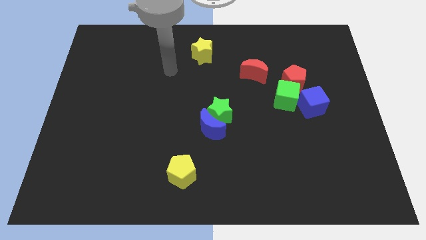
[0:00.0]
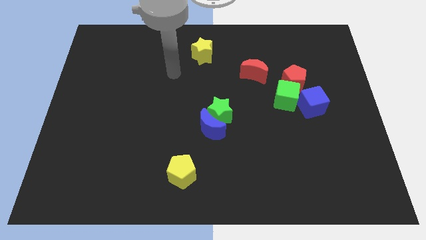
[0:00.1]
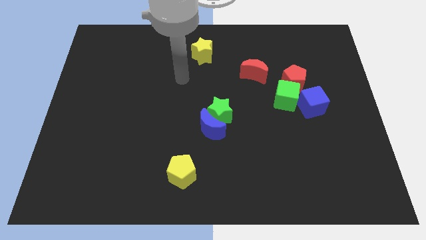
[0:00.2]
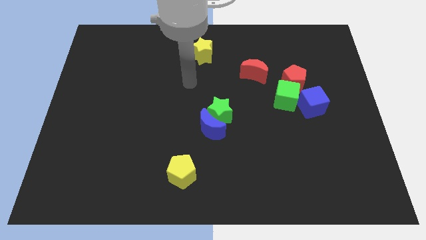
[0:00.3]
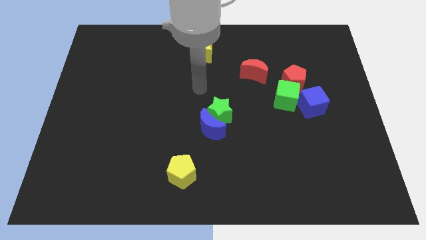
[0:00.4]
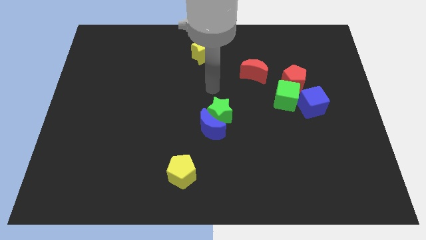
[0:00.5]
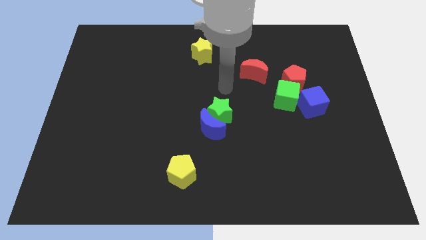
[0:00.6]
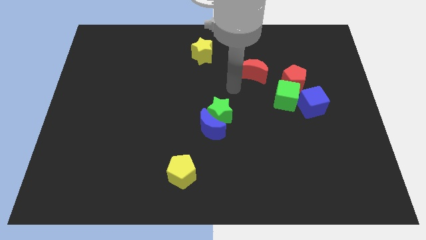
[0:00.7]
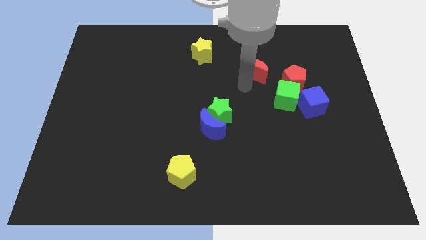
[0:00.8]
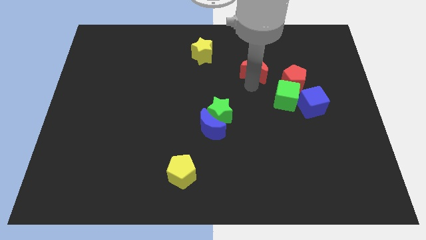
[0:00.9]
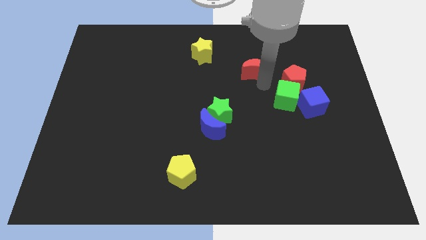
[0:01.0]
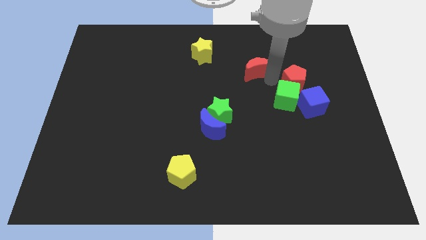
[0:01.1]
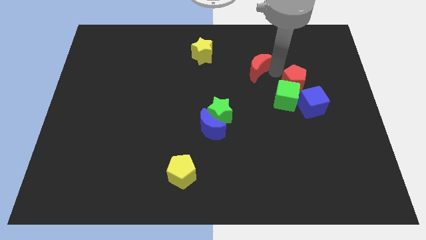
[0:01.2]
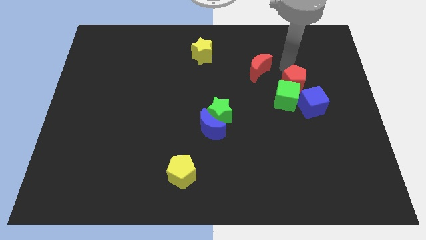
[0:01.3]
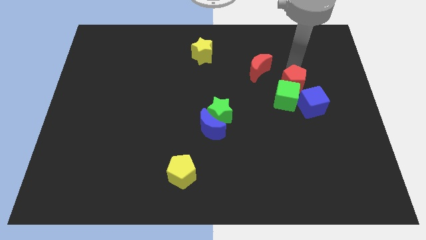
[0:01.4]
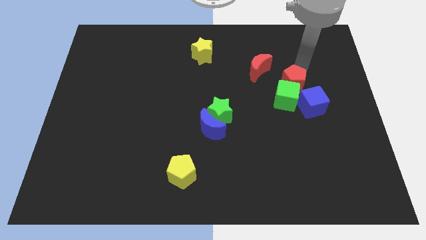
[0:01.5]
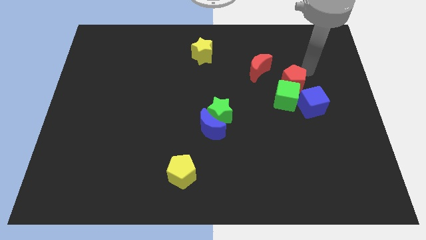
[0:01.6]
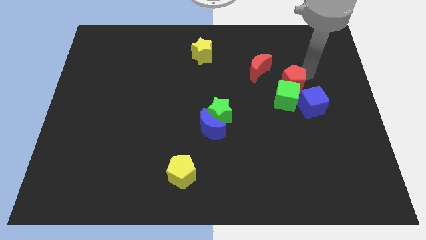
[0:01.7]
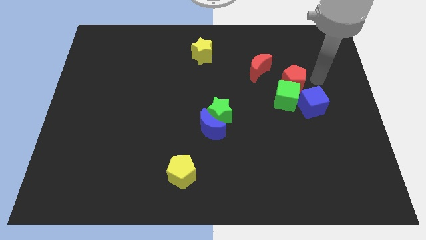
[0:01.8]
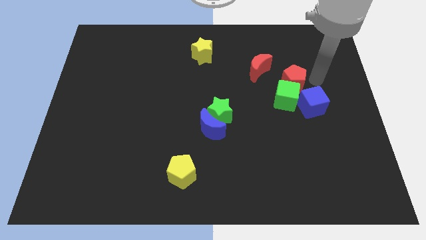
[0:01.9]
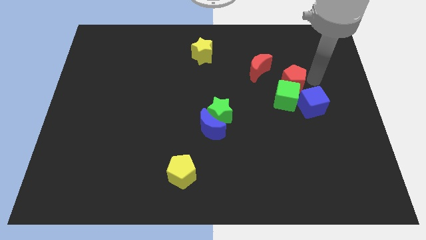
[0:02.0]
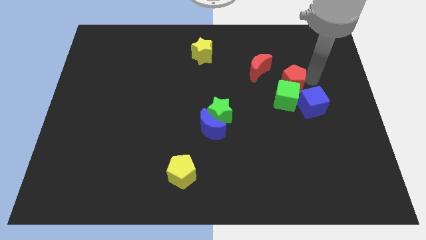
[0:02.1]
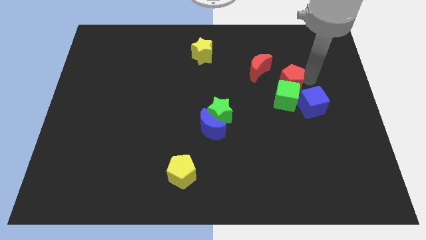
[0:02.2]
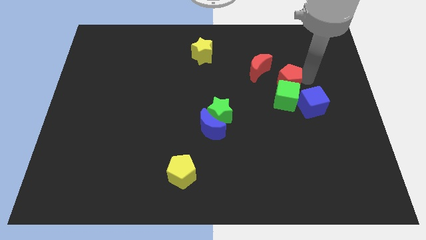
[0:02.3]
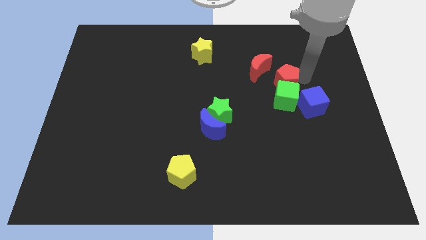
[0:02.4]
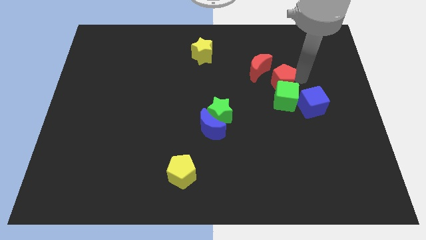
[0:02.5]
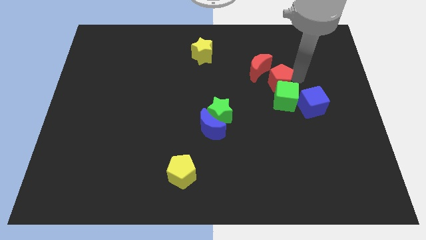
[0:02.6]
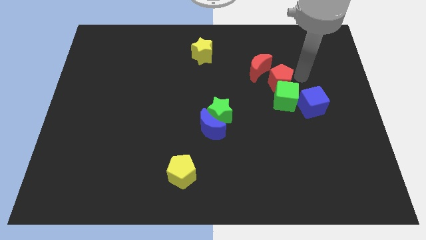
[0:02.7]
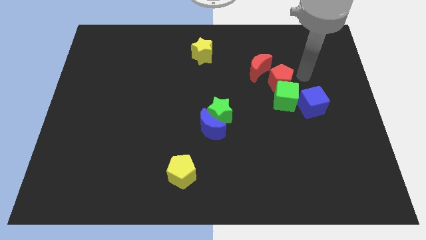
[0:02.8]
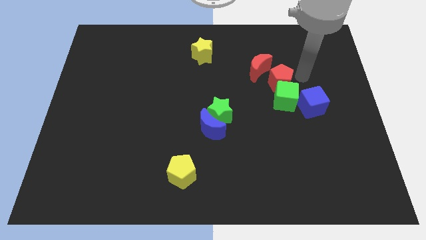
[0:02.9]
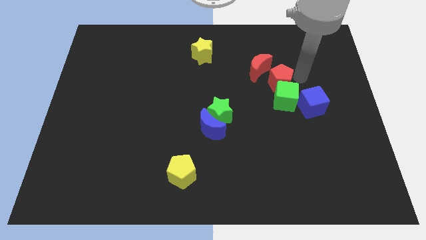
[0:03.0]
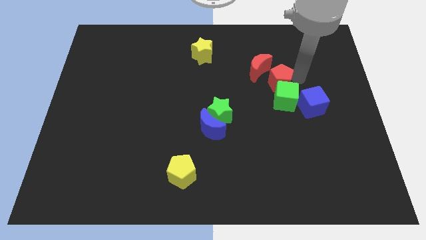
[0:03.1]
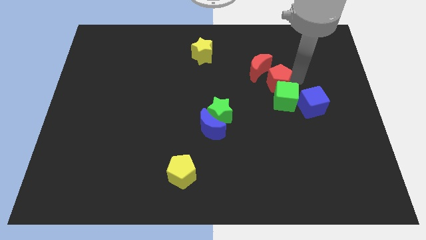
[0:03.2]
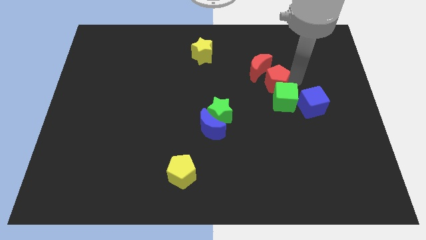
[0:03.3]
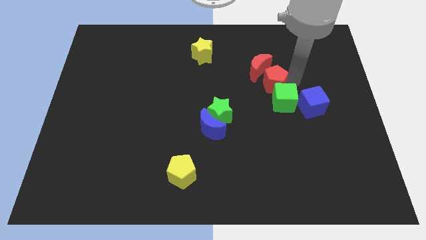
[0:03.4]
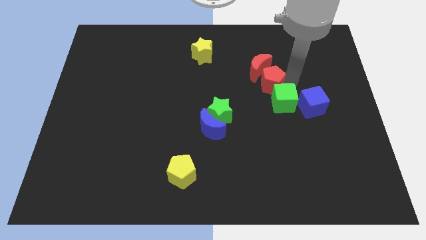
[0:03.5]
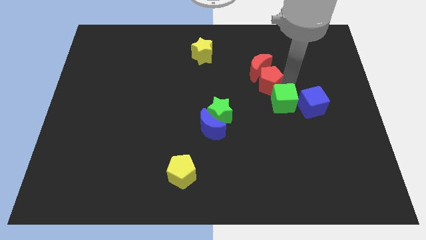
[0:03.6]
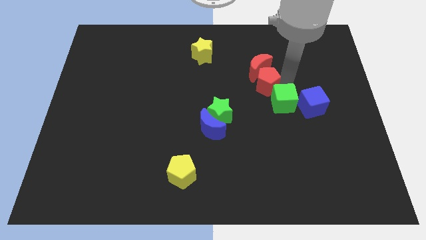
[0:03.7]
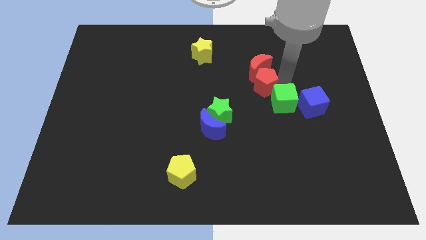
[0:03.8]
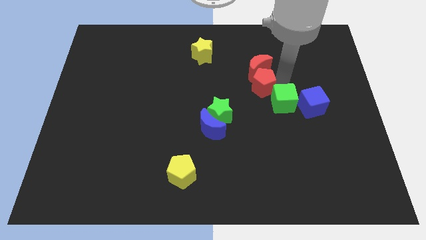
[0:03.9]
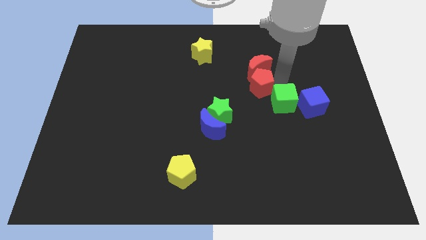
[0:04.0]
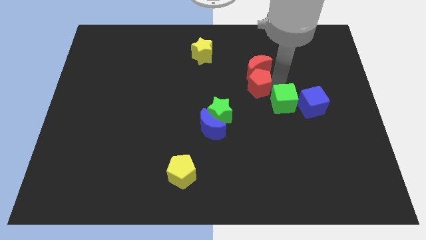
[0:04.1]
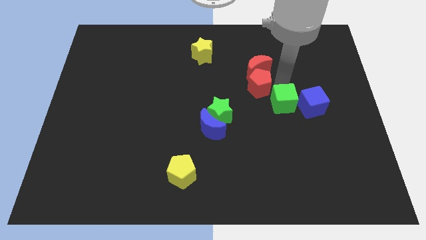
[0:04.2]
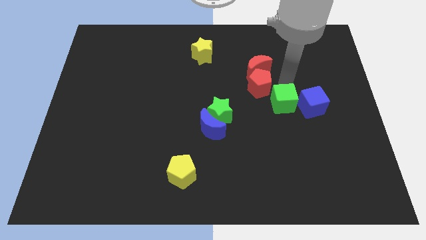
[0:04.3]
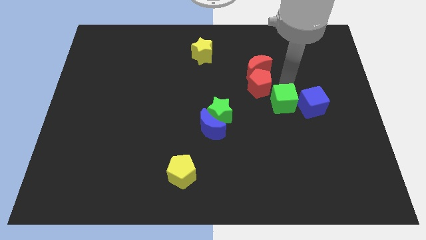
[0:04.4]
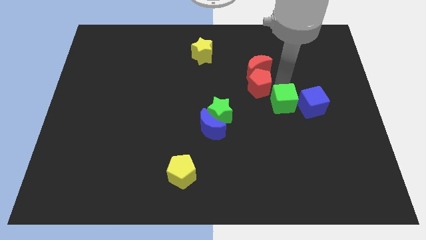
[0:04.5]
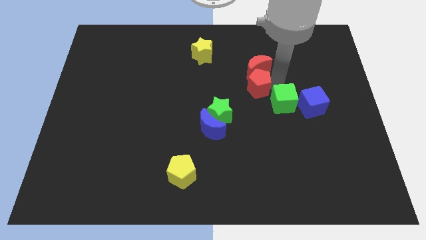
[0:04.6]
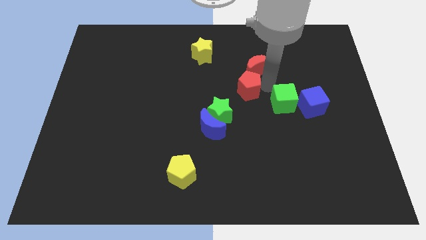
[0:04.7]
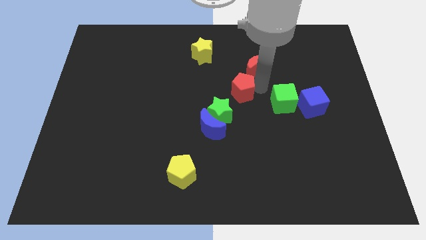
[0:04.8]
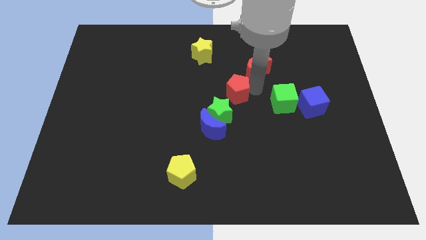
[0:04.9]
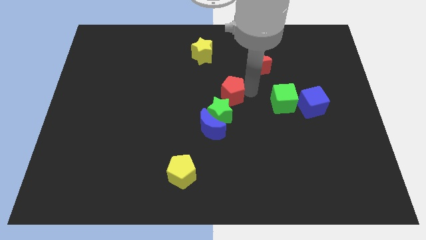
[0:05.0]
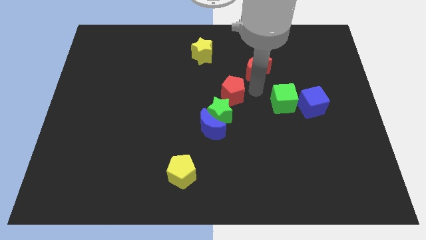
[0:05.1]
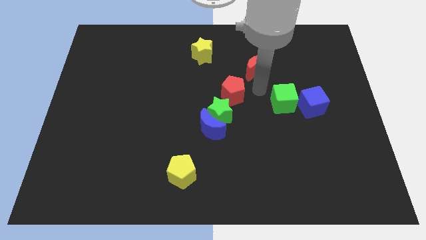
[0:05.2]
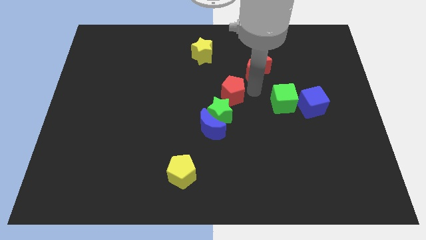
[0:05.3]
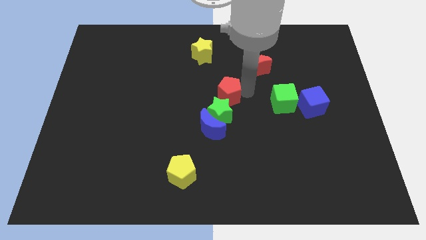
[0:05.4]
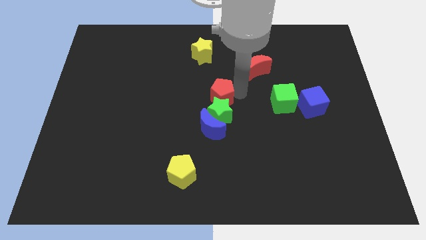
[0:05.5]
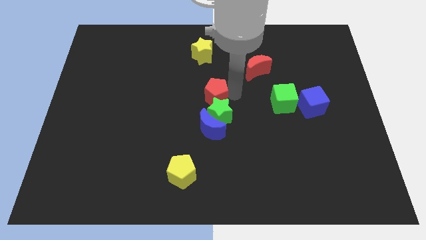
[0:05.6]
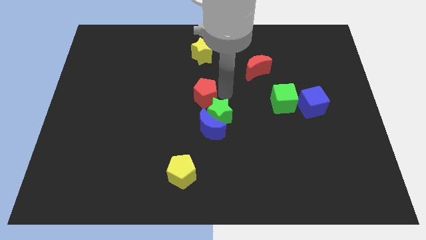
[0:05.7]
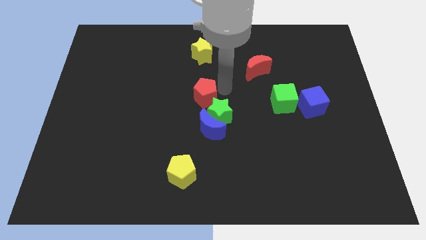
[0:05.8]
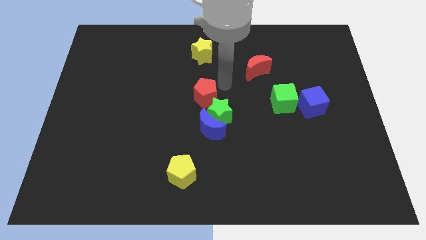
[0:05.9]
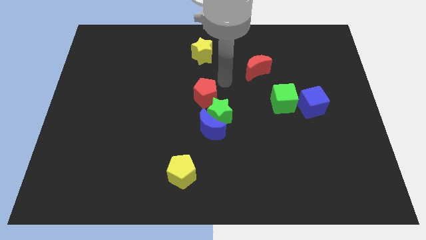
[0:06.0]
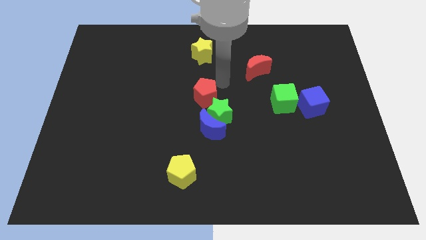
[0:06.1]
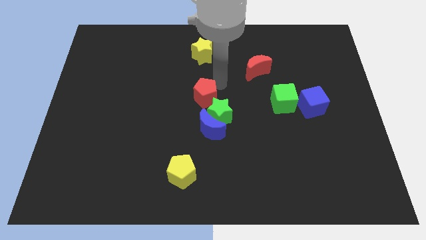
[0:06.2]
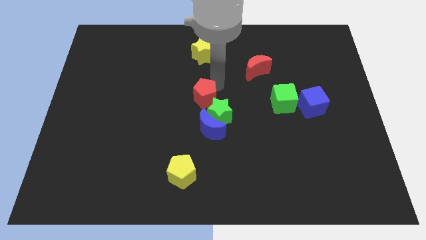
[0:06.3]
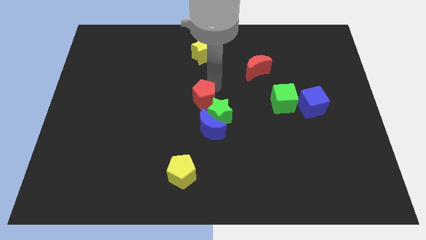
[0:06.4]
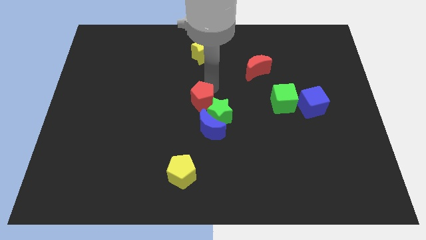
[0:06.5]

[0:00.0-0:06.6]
put the red pentagon to the top left of the blue moon

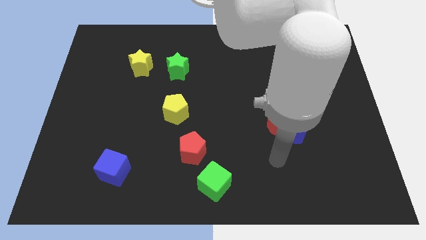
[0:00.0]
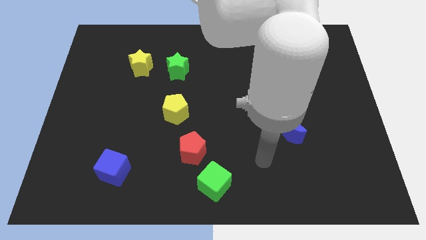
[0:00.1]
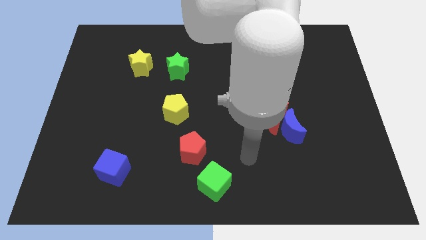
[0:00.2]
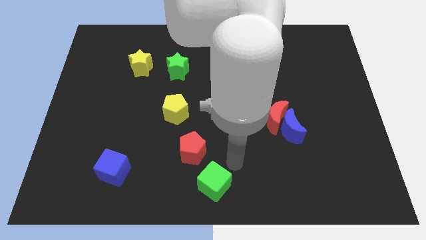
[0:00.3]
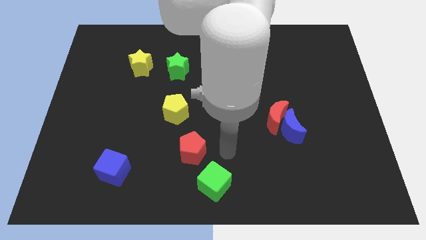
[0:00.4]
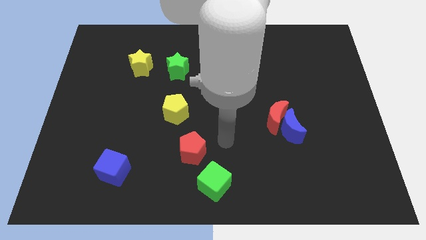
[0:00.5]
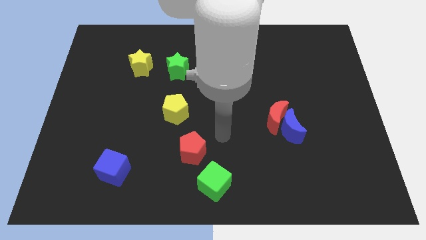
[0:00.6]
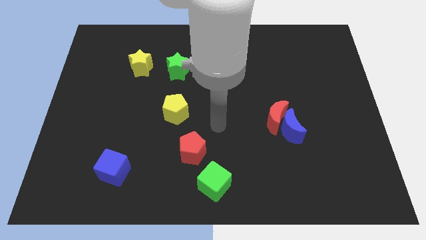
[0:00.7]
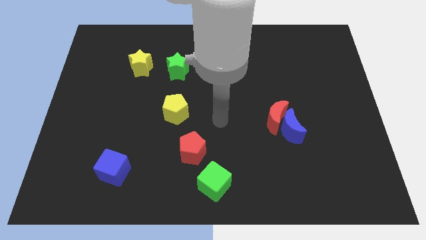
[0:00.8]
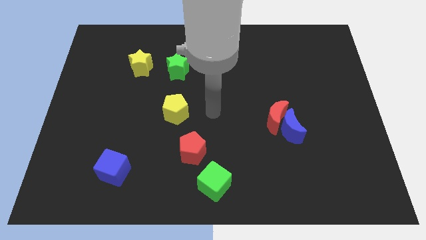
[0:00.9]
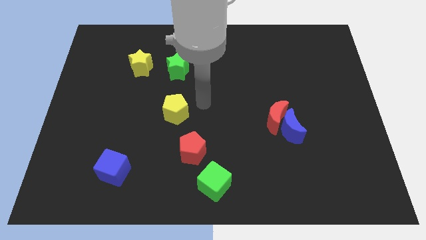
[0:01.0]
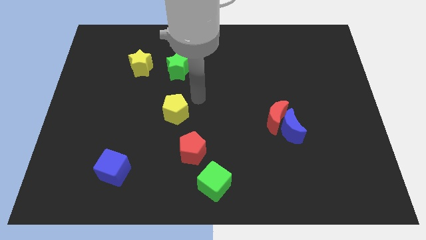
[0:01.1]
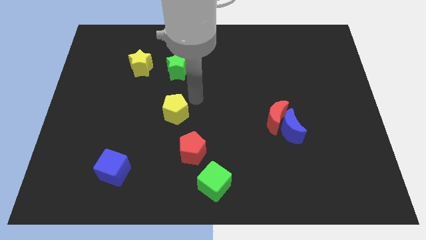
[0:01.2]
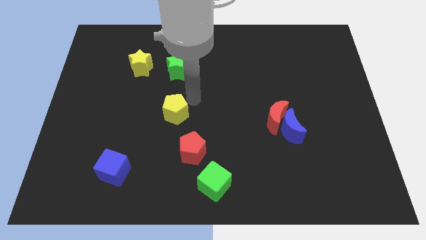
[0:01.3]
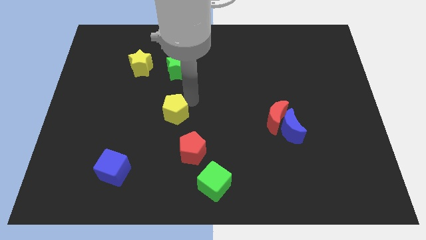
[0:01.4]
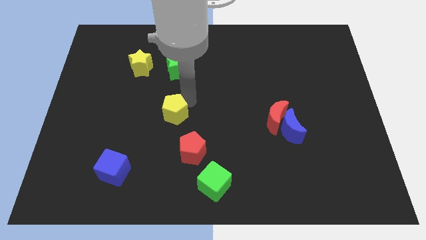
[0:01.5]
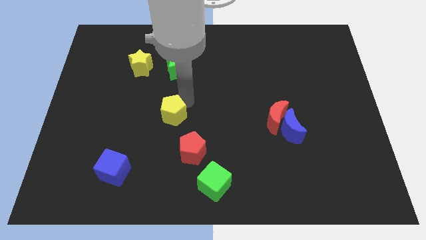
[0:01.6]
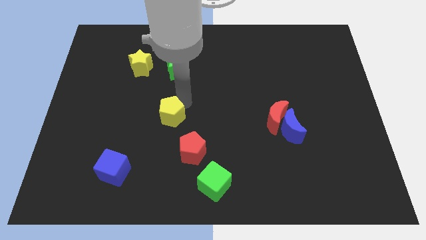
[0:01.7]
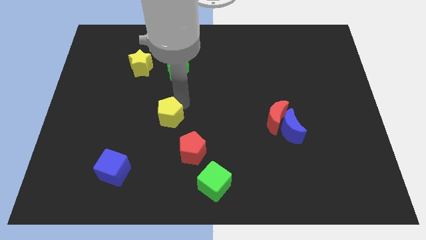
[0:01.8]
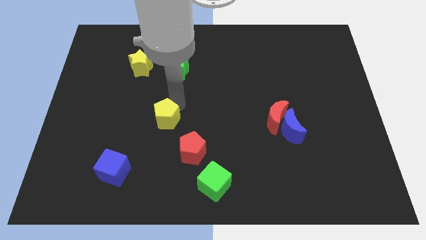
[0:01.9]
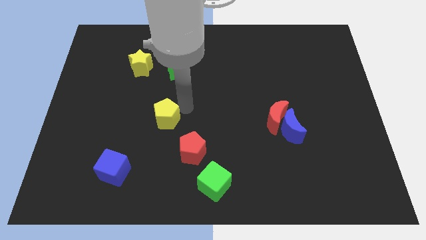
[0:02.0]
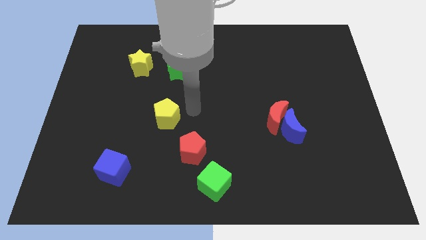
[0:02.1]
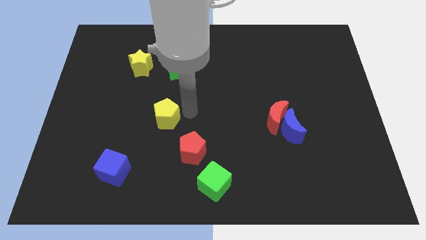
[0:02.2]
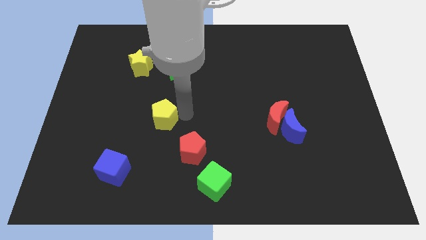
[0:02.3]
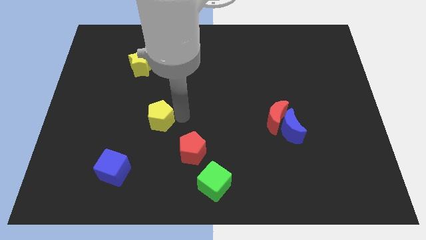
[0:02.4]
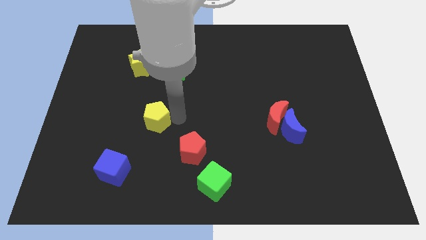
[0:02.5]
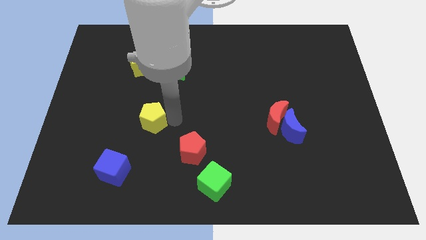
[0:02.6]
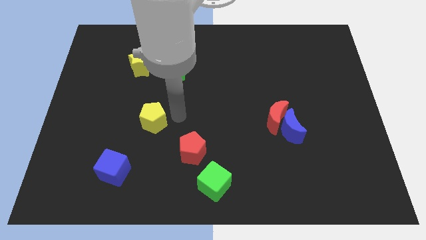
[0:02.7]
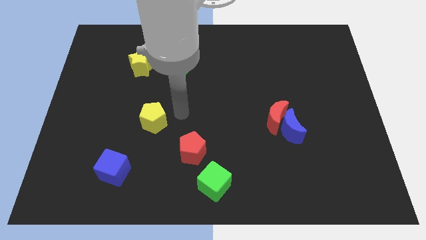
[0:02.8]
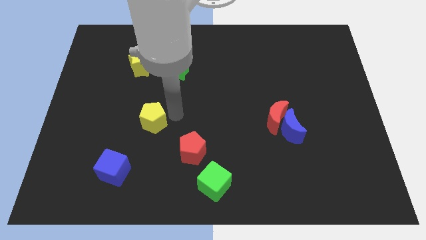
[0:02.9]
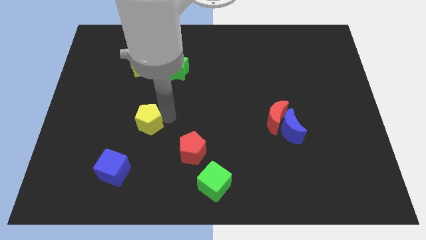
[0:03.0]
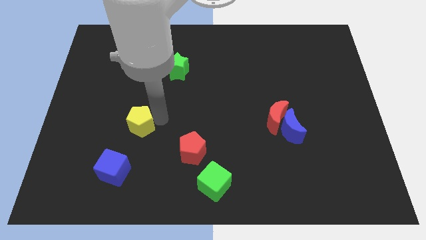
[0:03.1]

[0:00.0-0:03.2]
move the yellow pentagon above the blue cube
